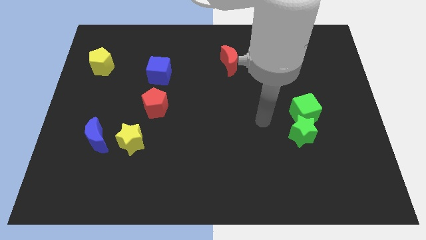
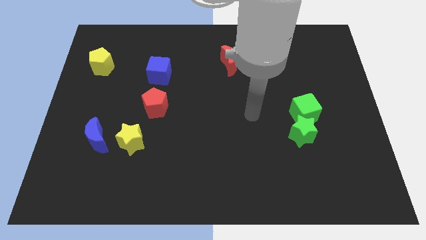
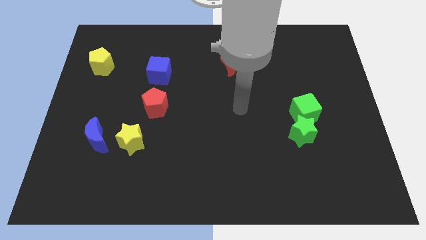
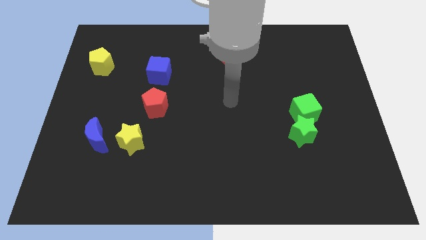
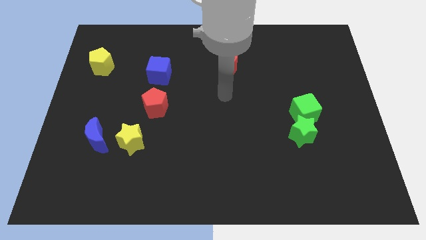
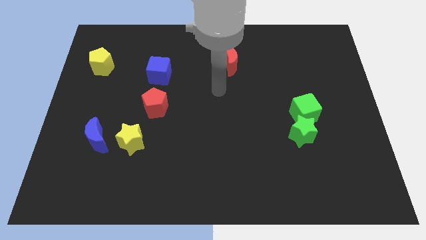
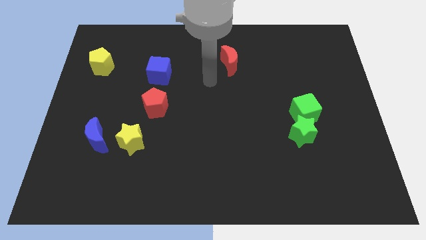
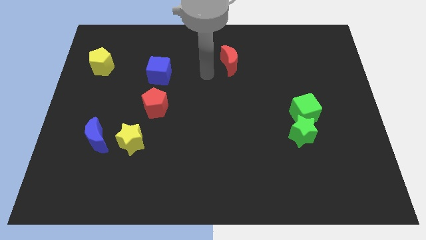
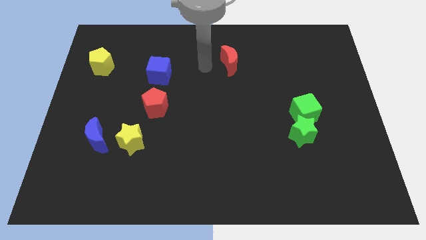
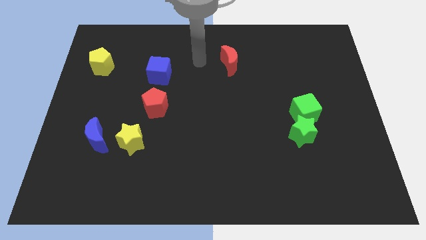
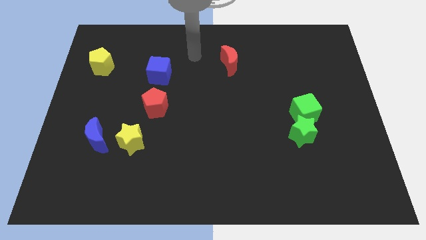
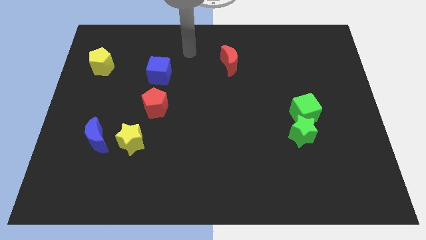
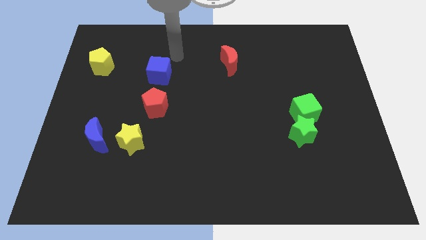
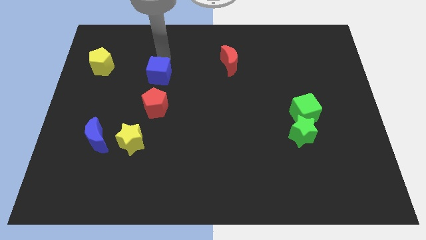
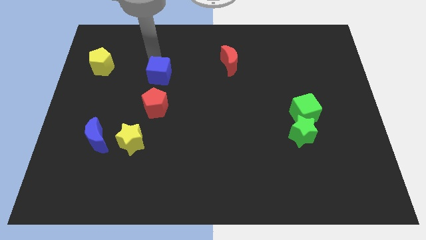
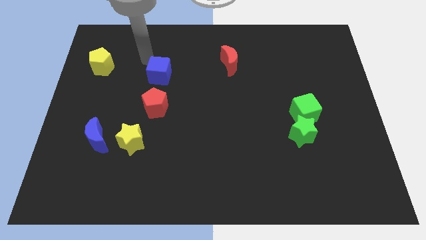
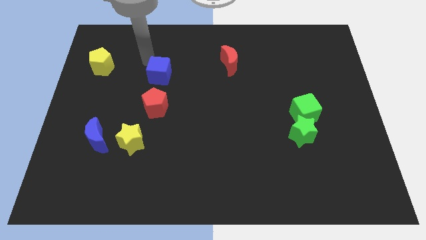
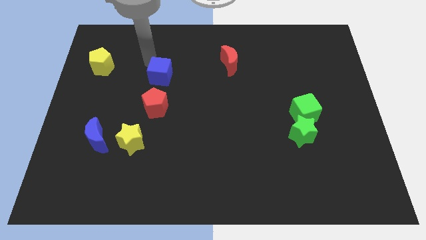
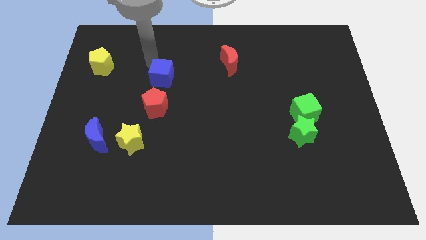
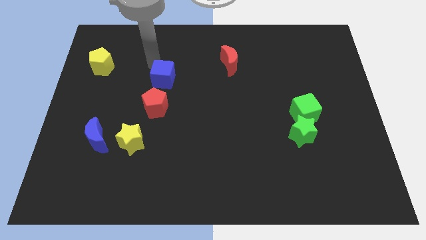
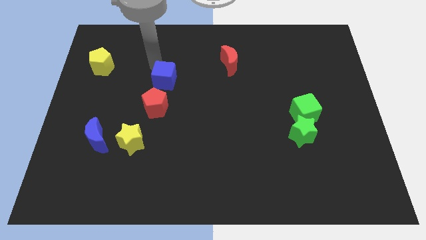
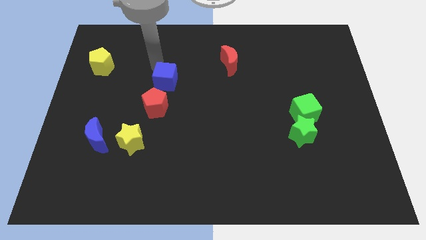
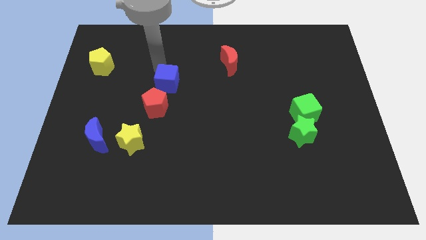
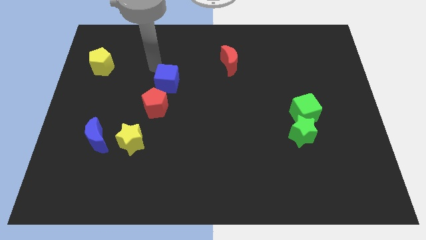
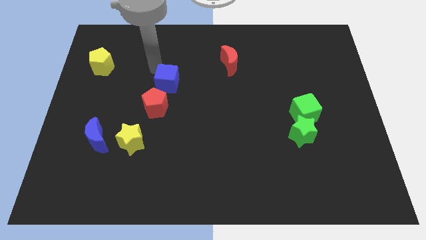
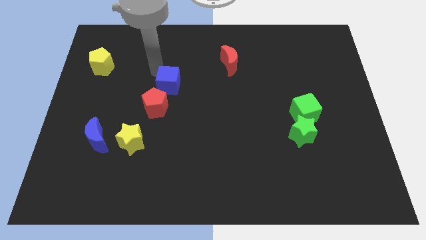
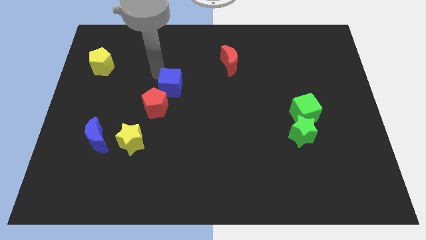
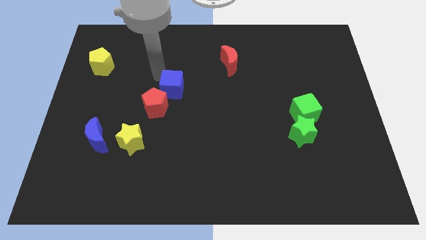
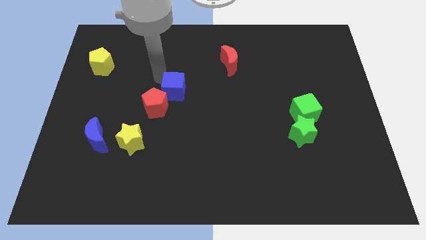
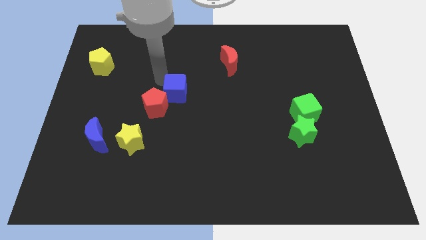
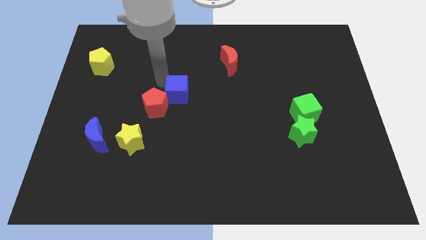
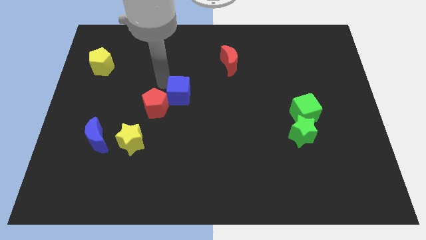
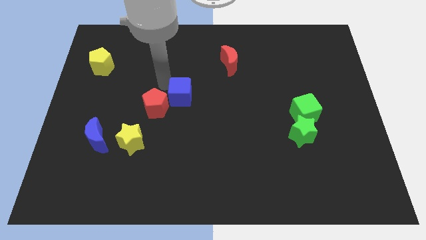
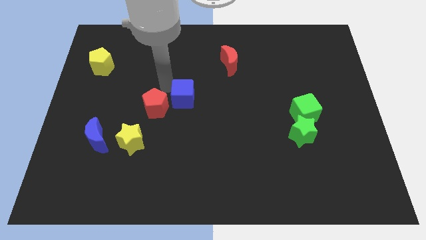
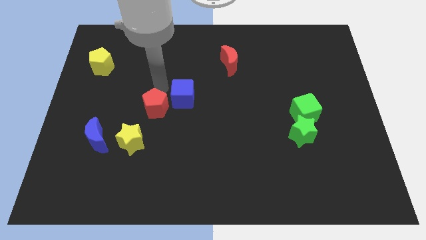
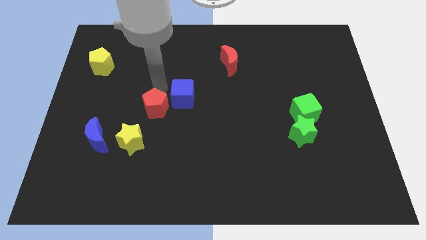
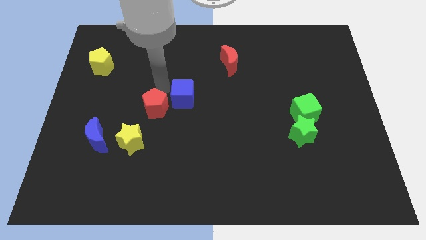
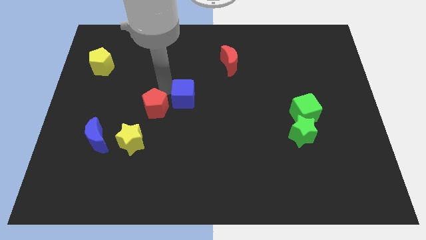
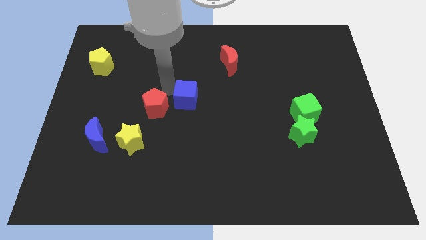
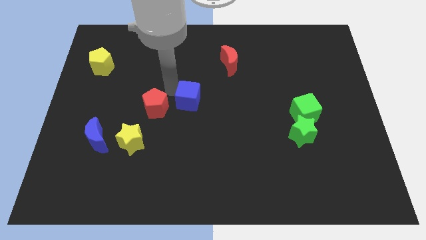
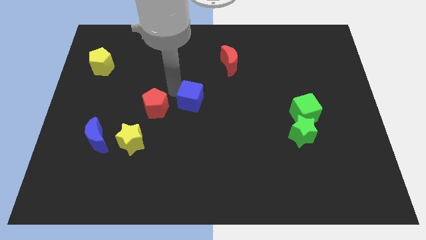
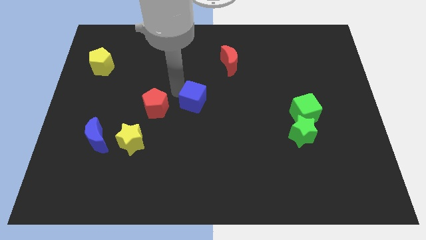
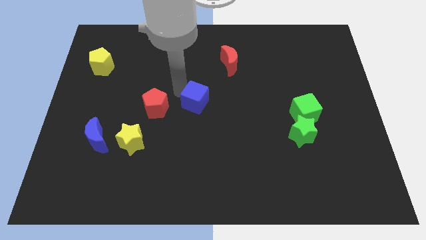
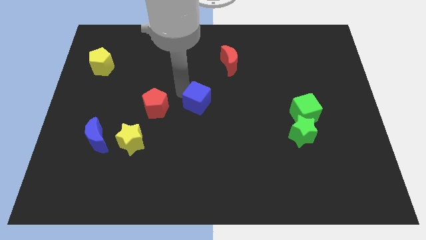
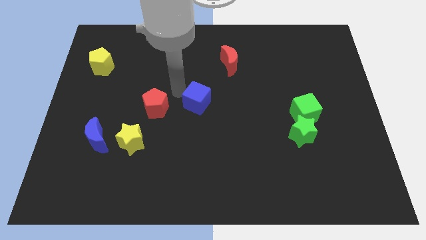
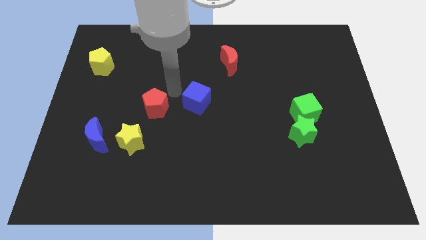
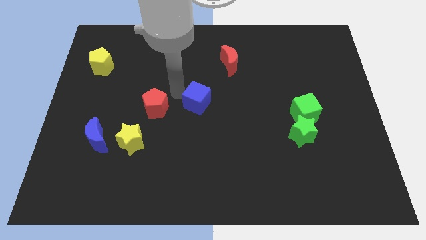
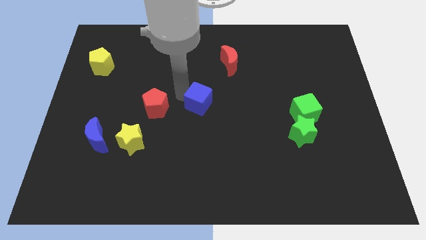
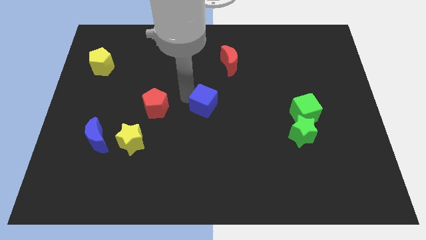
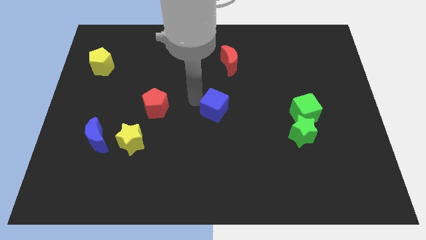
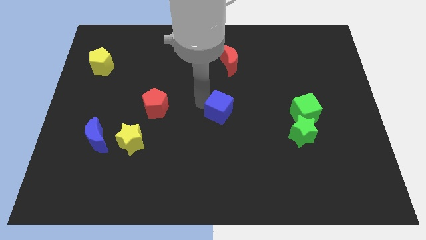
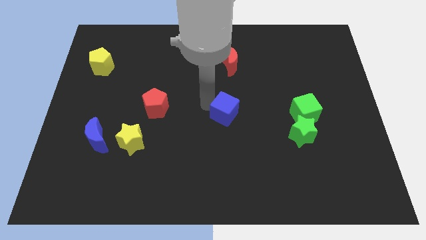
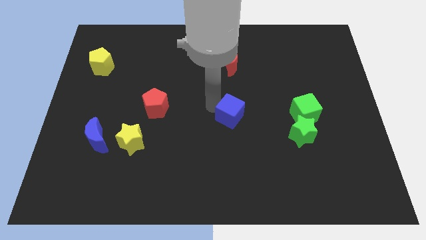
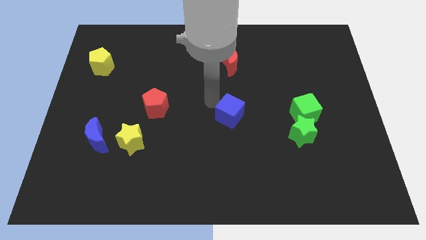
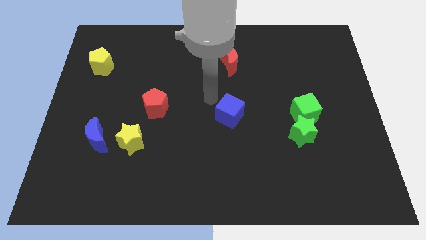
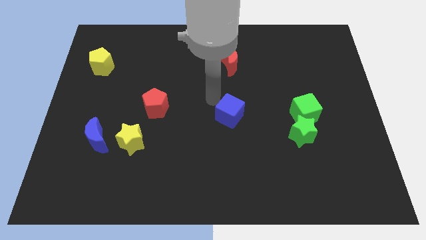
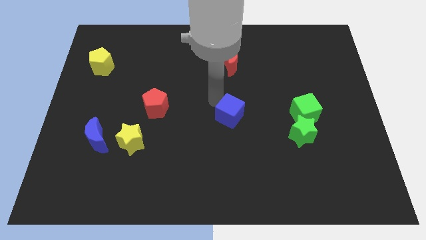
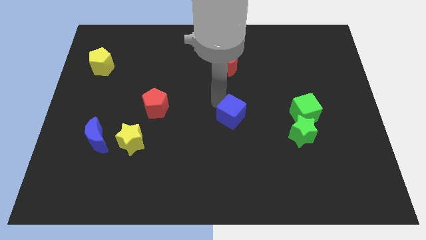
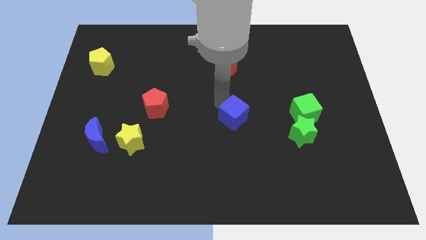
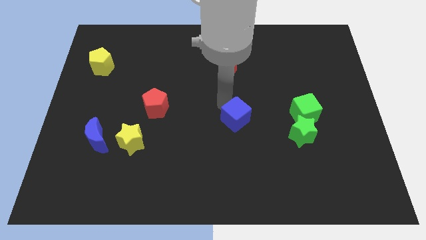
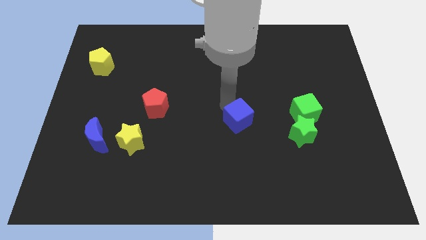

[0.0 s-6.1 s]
move the blue cube to the left side of the green star

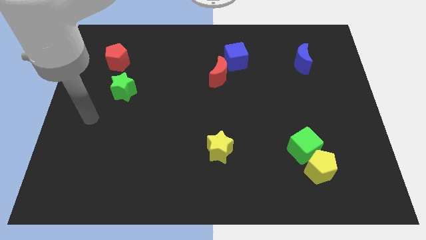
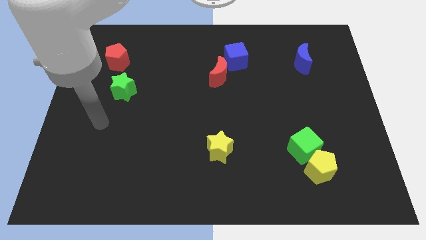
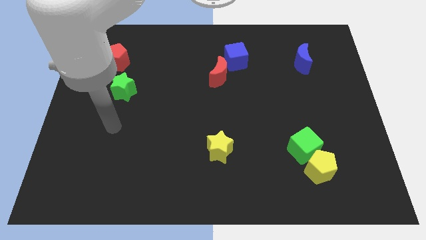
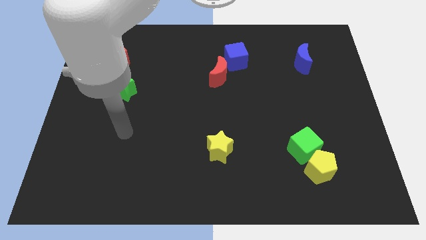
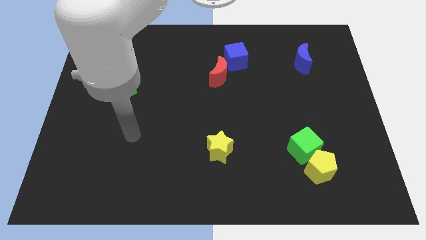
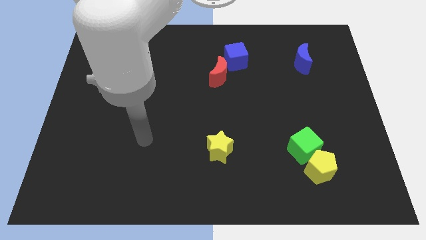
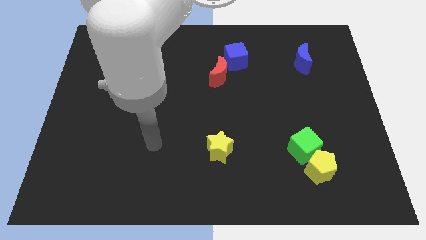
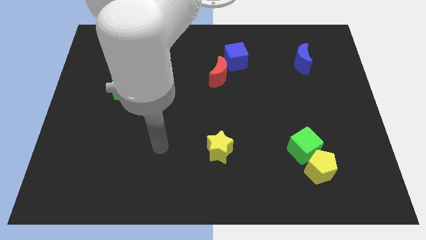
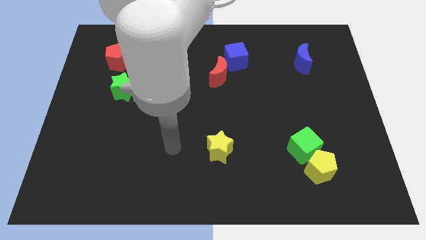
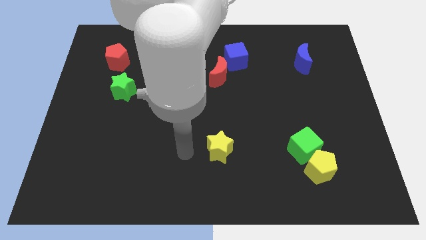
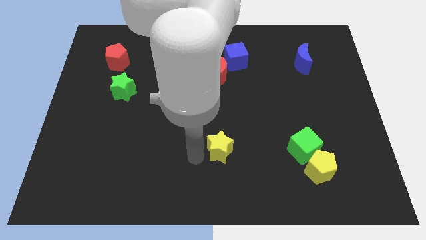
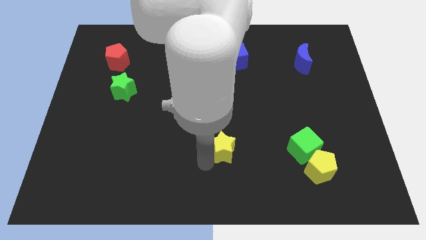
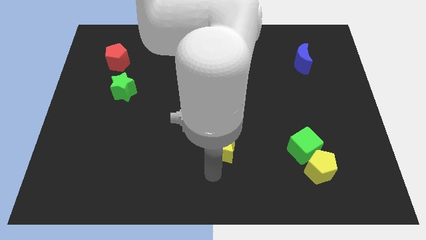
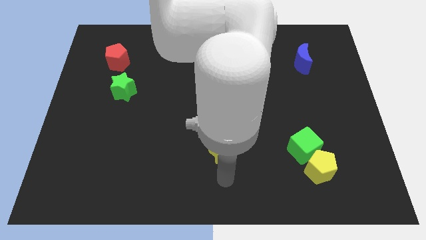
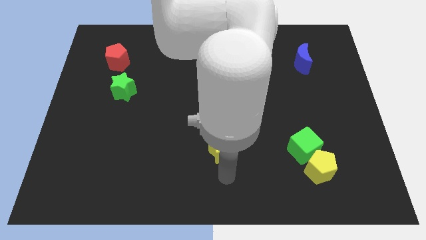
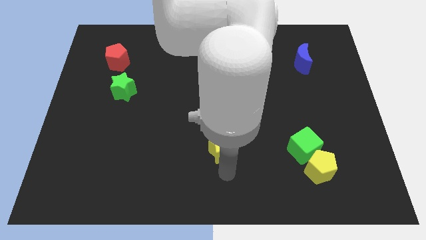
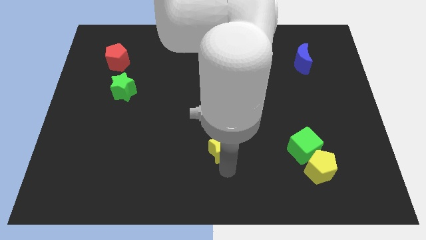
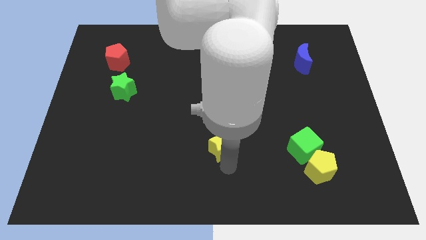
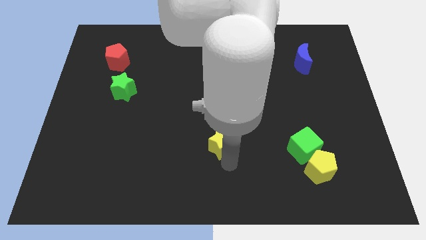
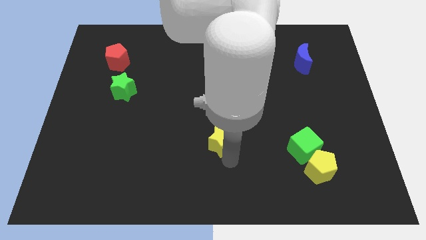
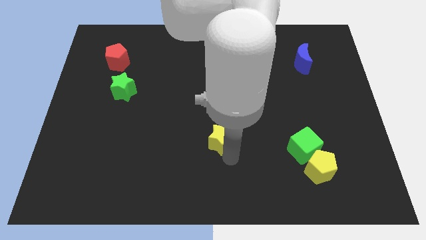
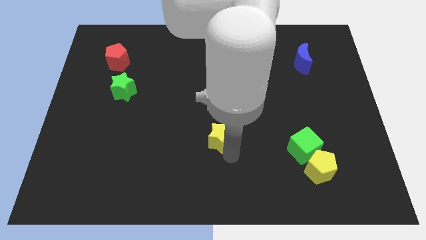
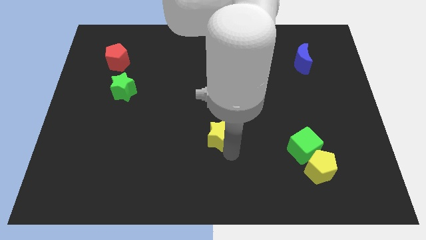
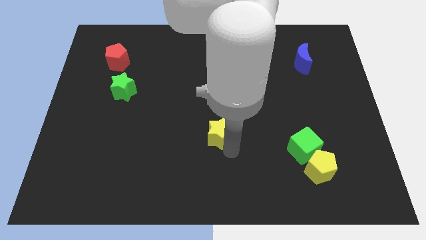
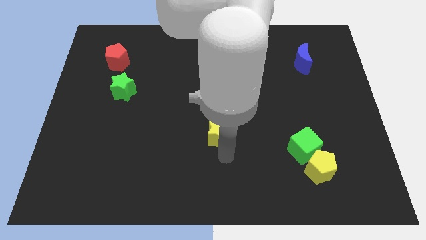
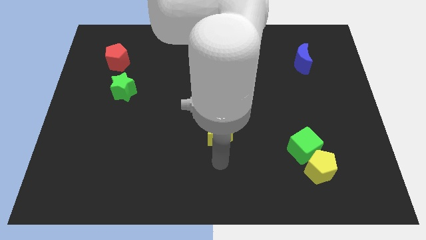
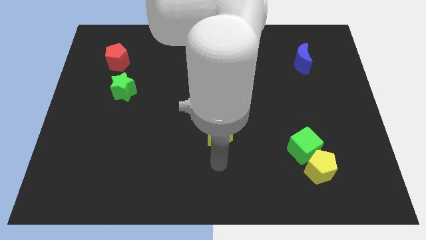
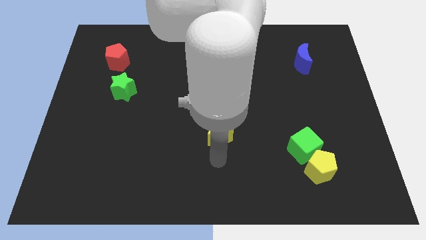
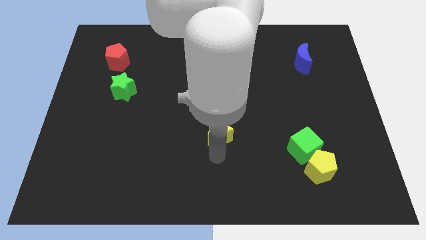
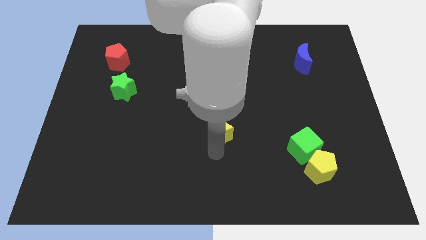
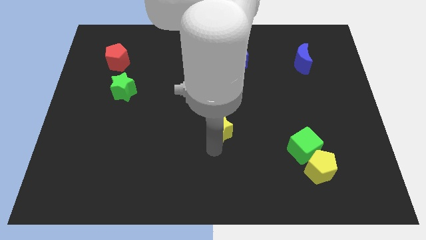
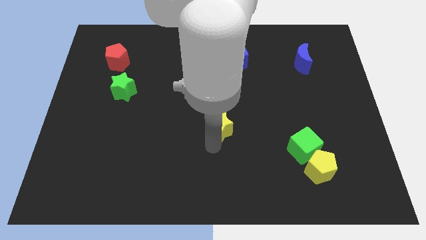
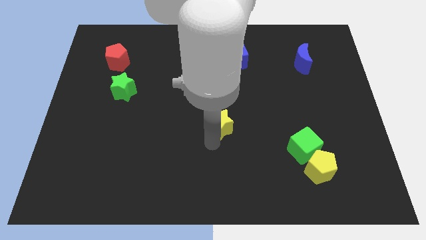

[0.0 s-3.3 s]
put the yellow star to the bottom of the red moon
